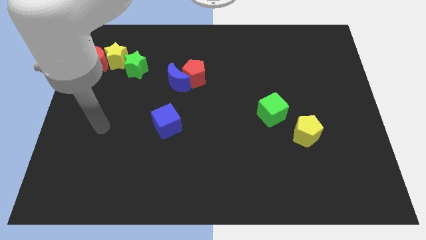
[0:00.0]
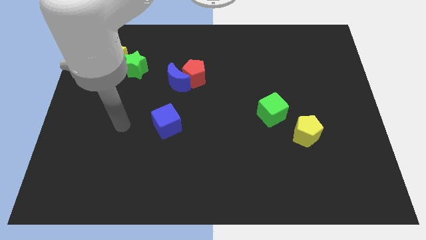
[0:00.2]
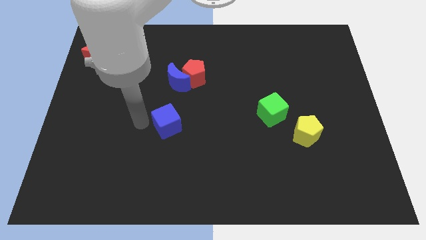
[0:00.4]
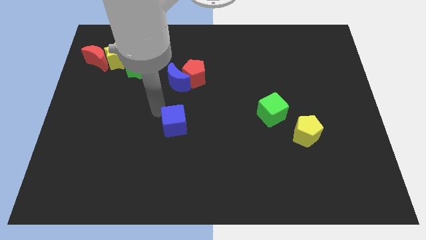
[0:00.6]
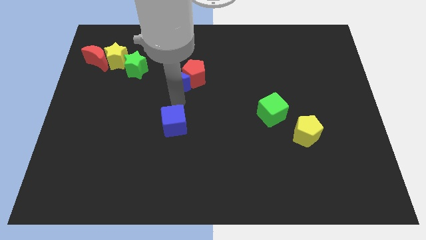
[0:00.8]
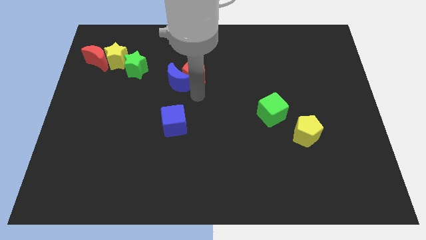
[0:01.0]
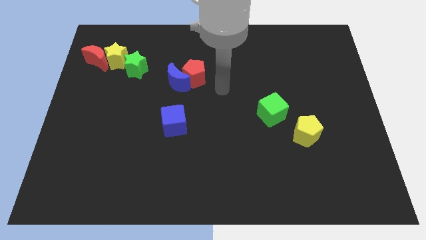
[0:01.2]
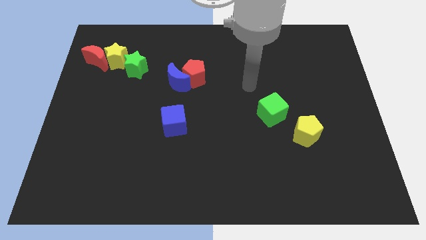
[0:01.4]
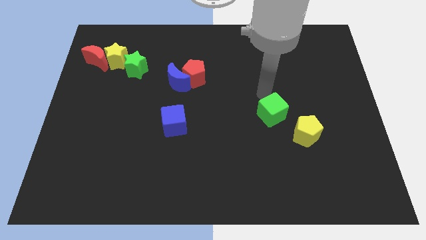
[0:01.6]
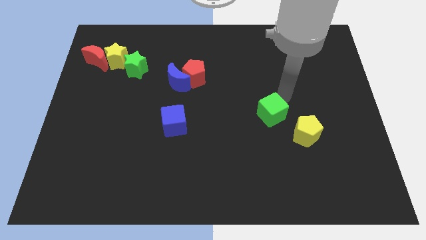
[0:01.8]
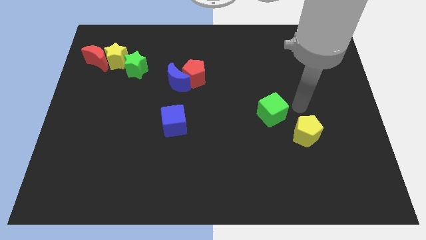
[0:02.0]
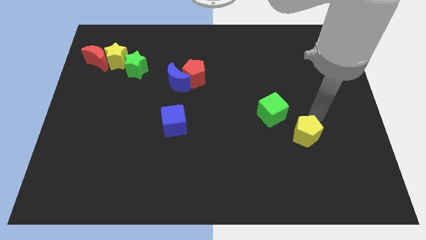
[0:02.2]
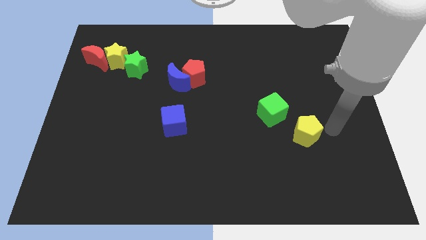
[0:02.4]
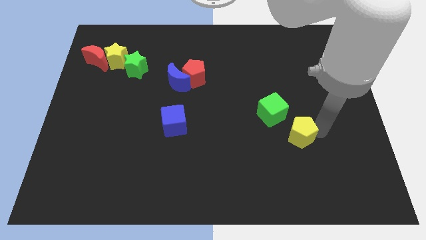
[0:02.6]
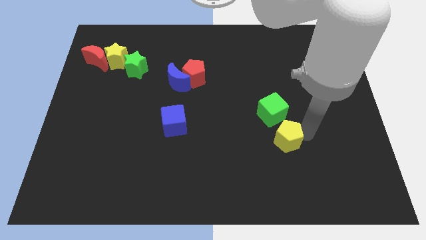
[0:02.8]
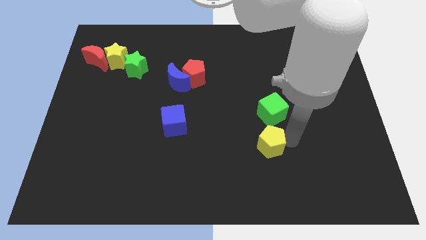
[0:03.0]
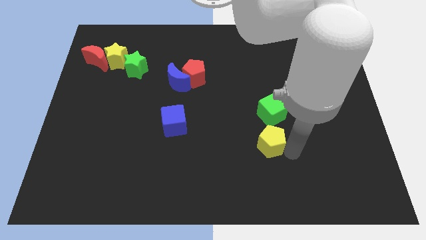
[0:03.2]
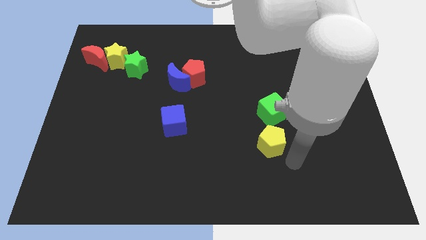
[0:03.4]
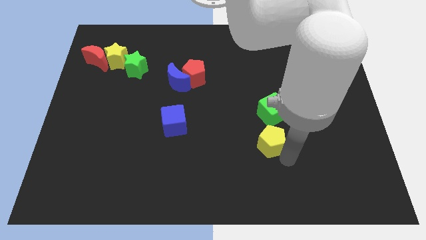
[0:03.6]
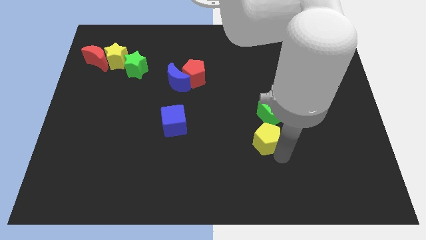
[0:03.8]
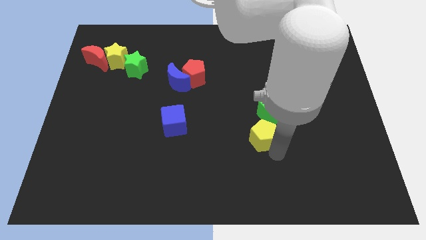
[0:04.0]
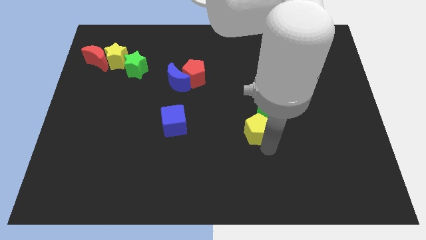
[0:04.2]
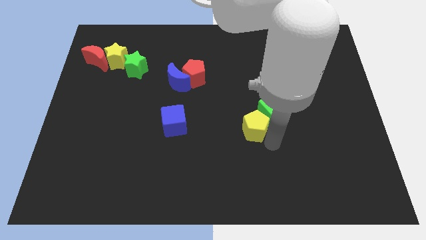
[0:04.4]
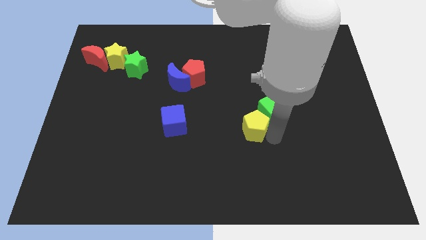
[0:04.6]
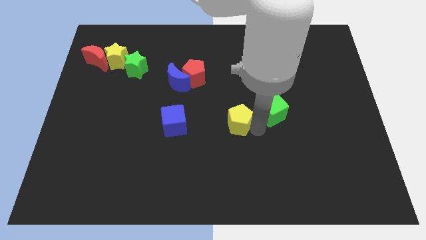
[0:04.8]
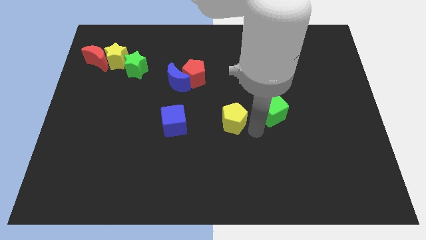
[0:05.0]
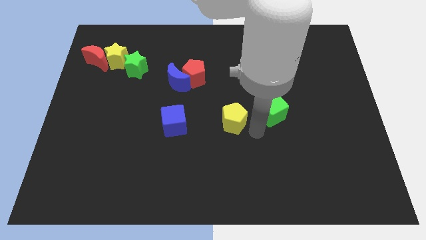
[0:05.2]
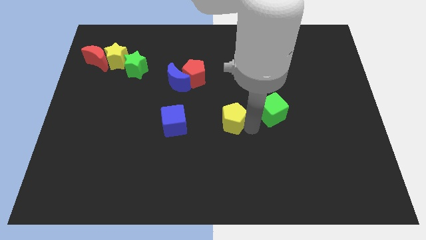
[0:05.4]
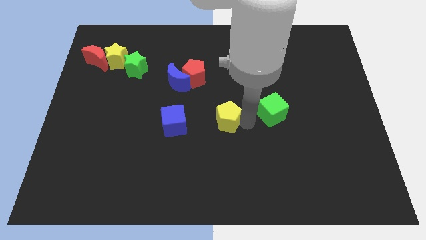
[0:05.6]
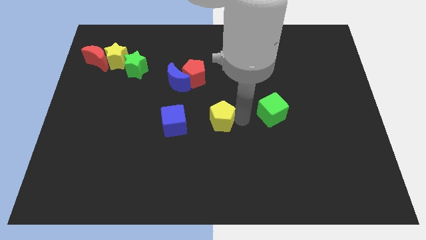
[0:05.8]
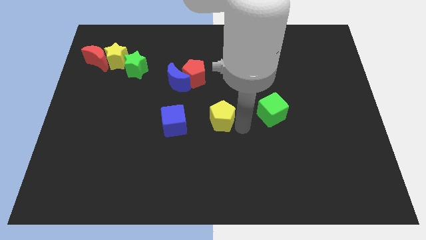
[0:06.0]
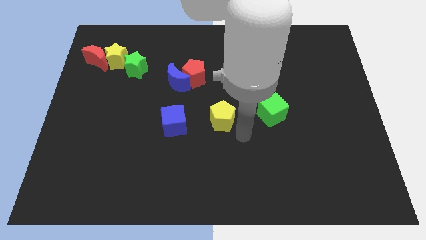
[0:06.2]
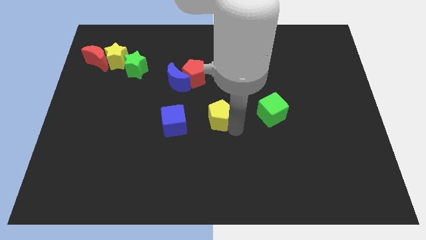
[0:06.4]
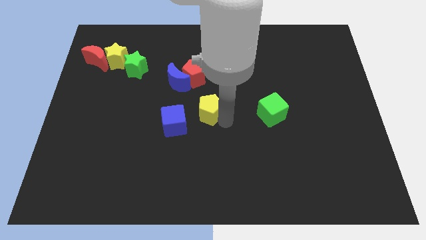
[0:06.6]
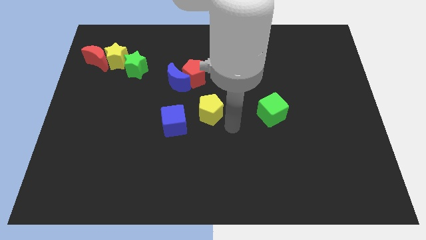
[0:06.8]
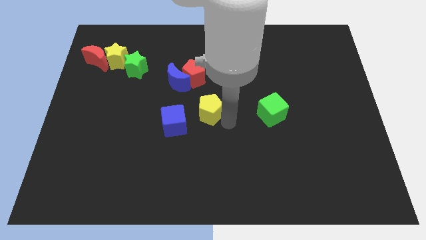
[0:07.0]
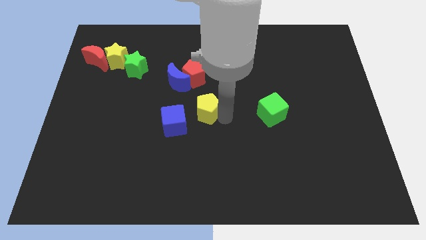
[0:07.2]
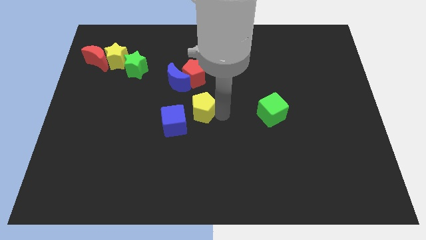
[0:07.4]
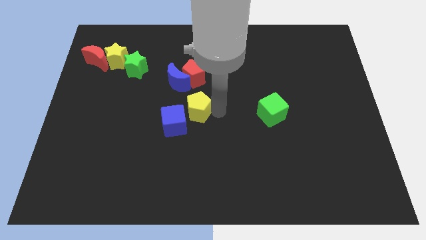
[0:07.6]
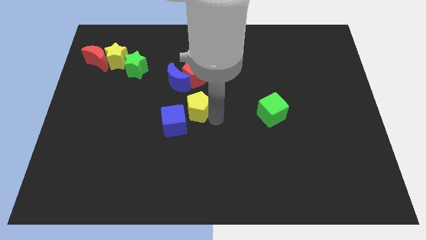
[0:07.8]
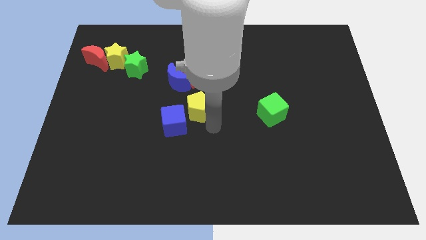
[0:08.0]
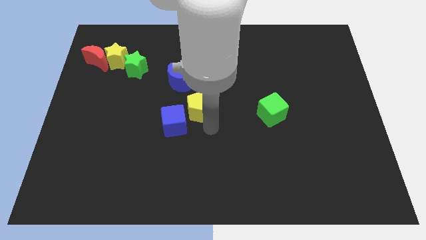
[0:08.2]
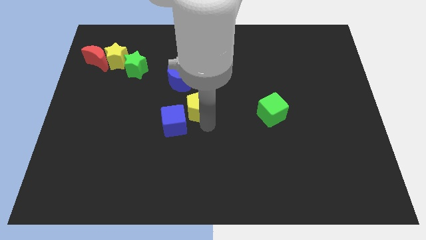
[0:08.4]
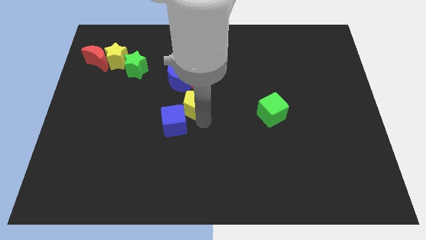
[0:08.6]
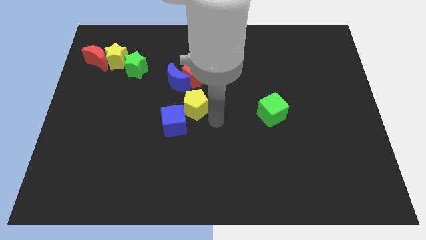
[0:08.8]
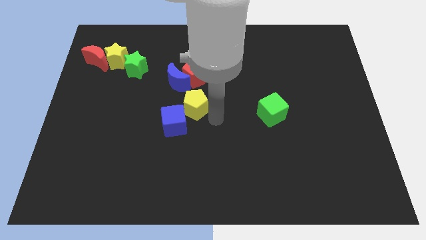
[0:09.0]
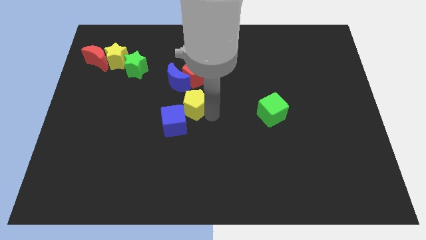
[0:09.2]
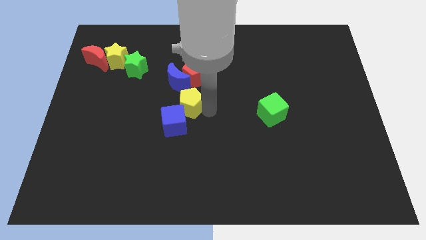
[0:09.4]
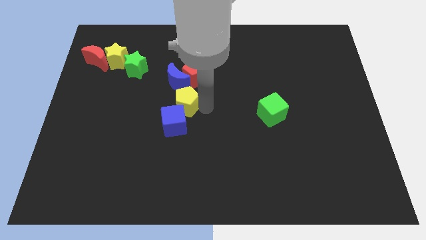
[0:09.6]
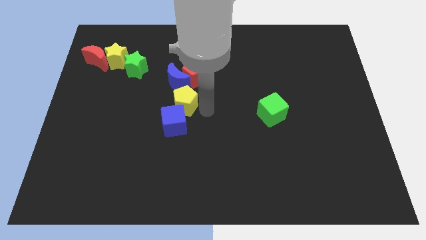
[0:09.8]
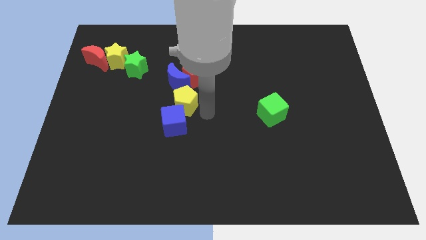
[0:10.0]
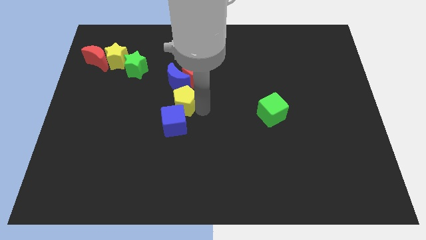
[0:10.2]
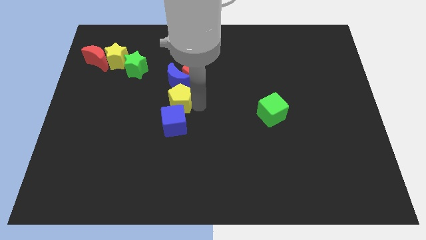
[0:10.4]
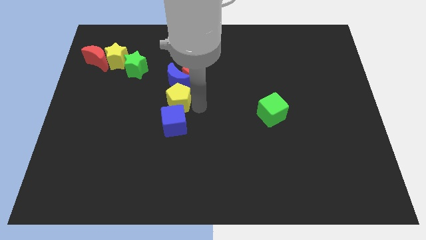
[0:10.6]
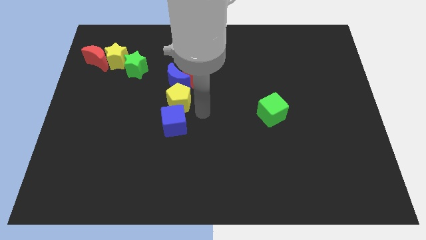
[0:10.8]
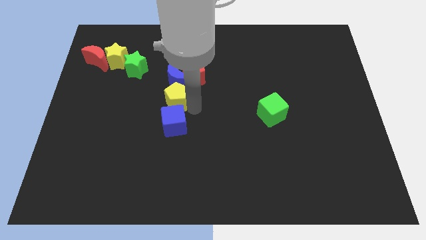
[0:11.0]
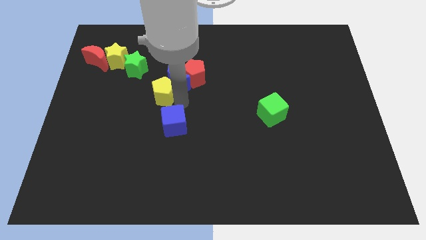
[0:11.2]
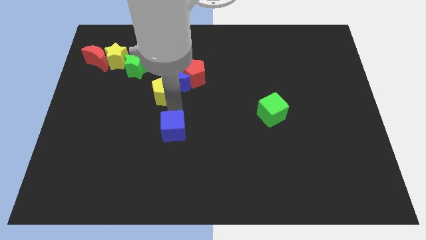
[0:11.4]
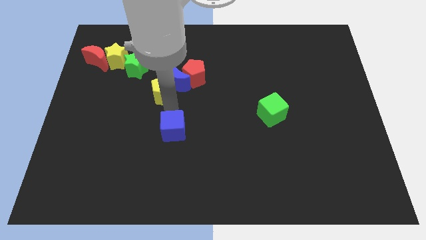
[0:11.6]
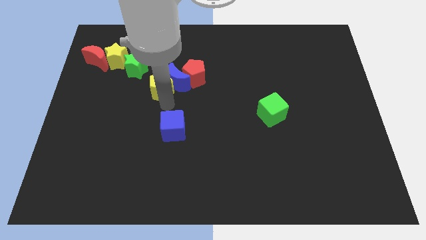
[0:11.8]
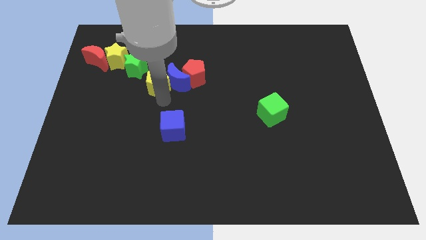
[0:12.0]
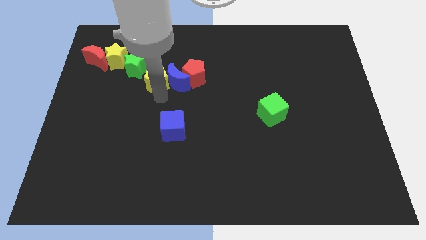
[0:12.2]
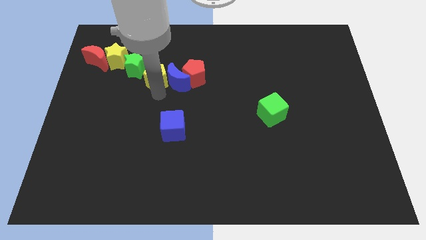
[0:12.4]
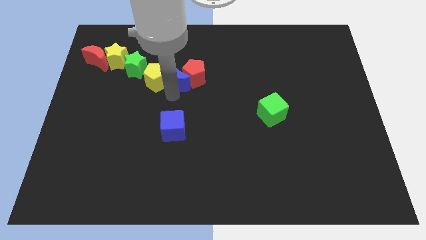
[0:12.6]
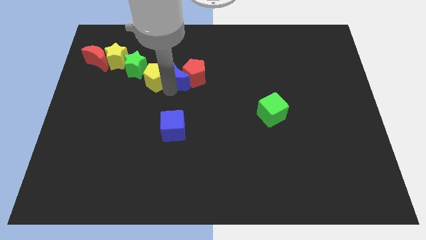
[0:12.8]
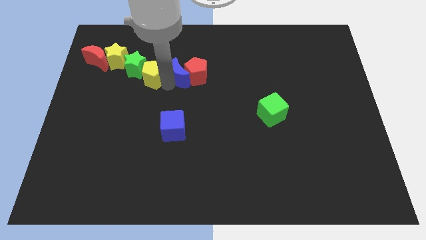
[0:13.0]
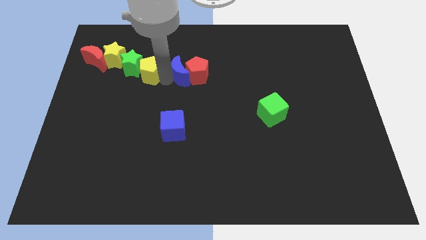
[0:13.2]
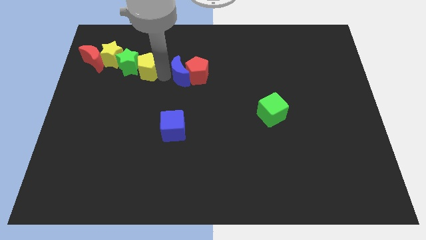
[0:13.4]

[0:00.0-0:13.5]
move the yellow pentagon to the right of the red moon
